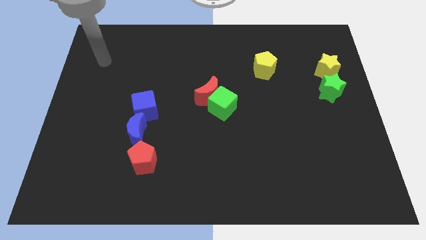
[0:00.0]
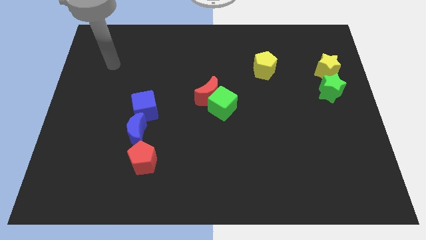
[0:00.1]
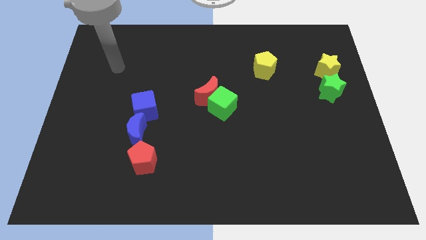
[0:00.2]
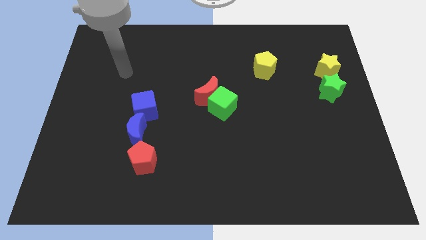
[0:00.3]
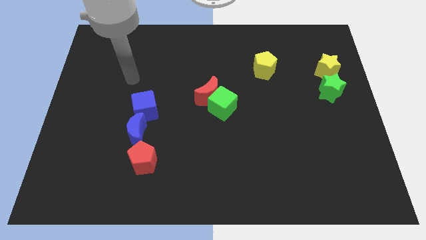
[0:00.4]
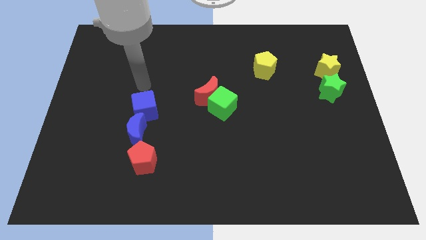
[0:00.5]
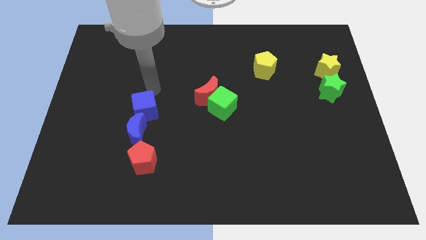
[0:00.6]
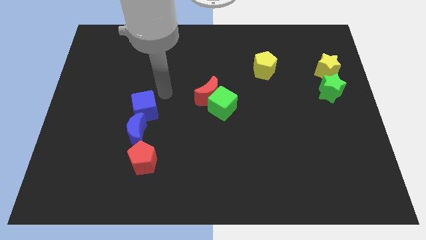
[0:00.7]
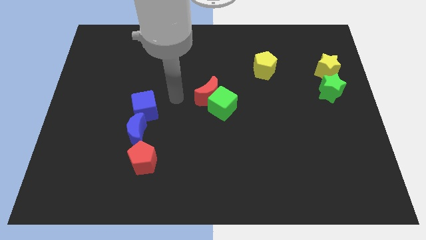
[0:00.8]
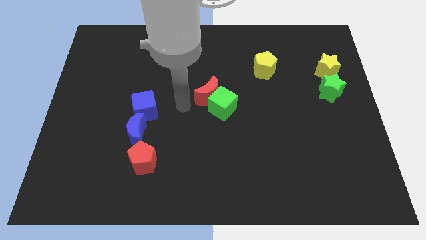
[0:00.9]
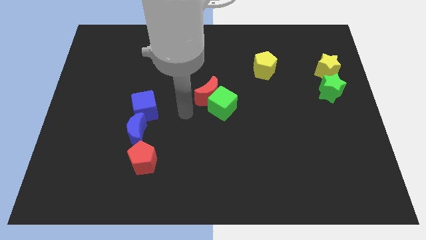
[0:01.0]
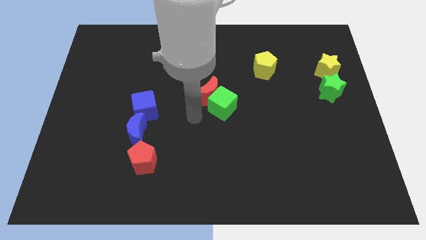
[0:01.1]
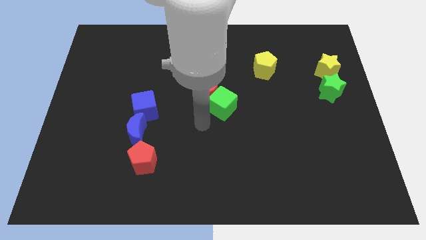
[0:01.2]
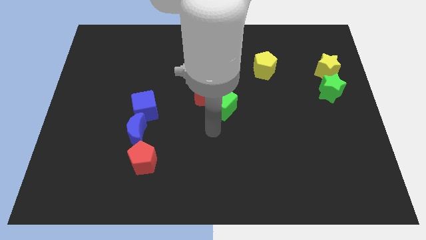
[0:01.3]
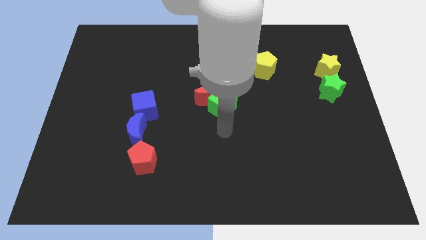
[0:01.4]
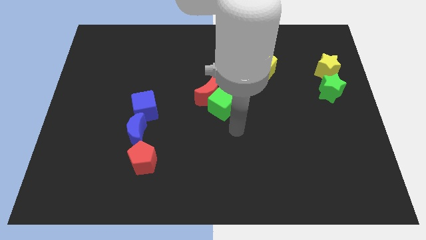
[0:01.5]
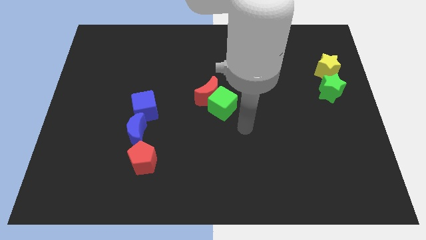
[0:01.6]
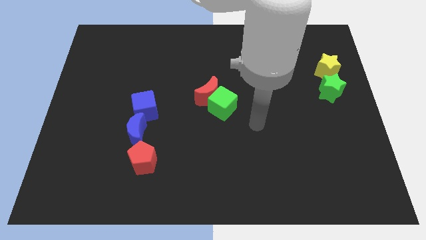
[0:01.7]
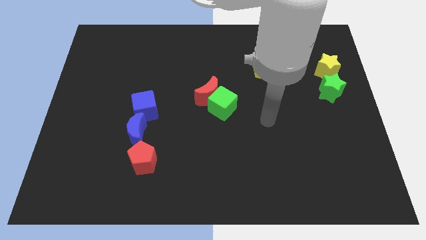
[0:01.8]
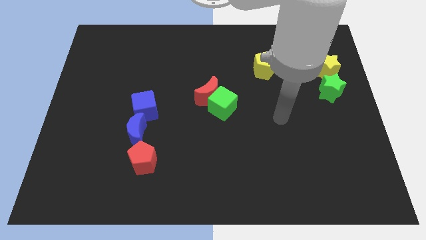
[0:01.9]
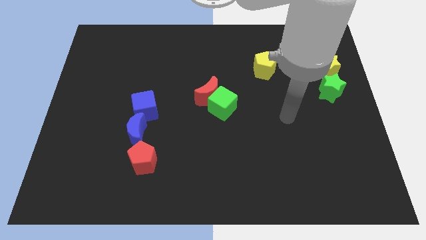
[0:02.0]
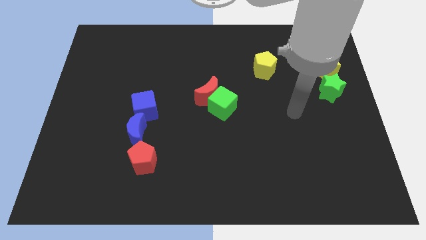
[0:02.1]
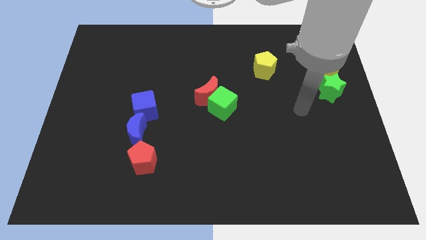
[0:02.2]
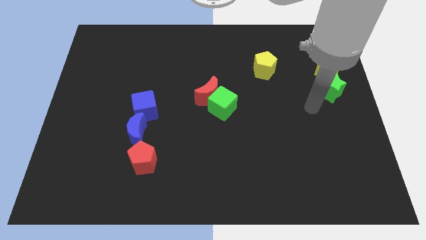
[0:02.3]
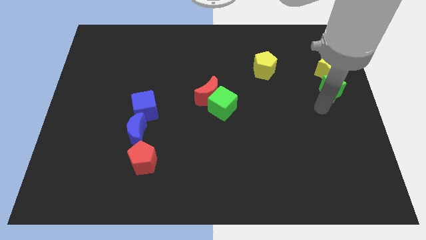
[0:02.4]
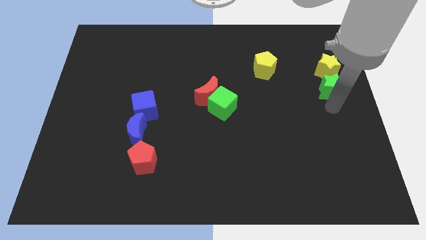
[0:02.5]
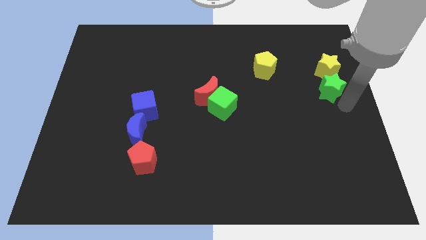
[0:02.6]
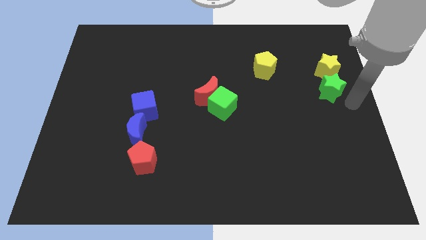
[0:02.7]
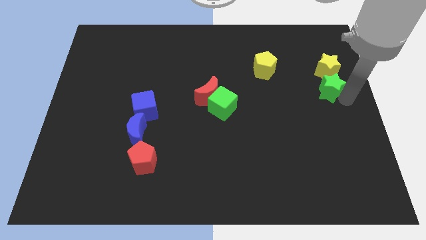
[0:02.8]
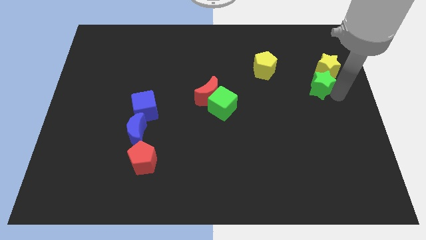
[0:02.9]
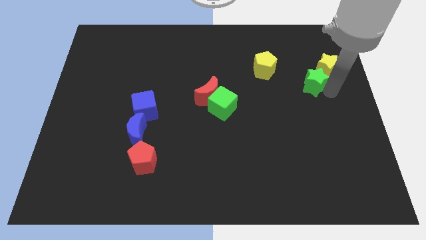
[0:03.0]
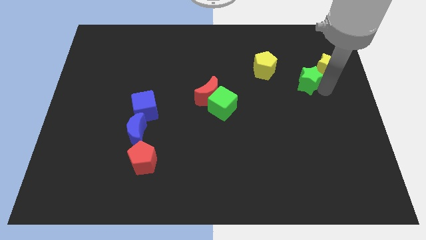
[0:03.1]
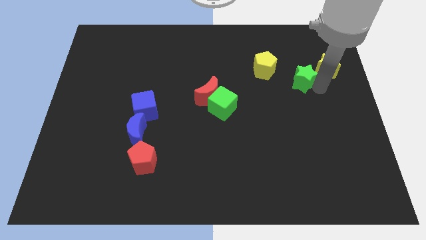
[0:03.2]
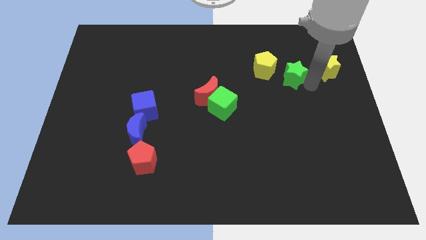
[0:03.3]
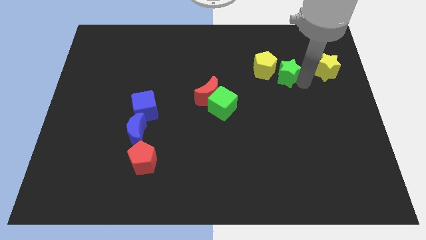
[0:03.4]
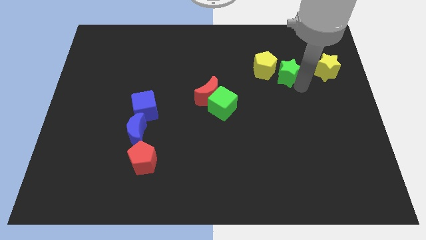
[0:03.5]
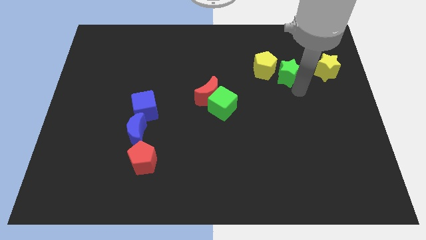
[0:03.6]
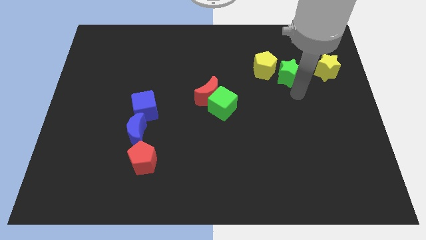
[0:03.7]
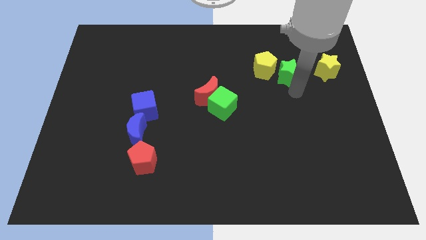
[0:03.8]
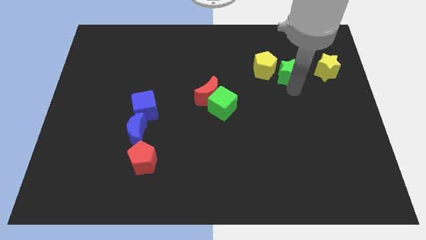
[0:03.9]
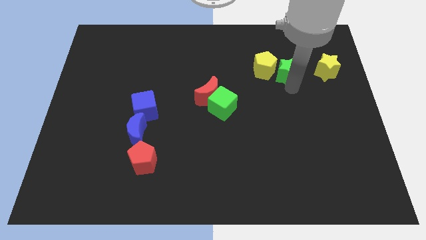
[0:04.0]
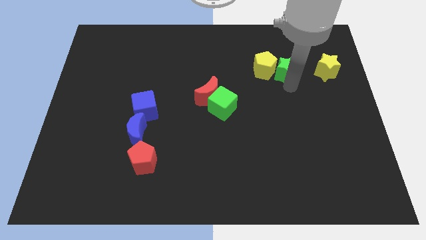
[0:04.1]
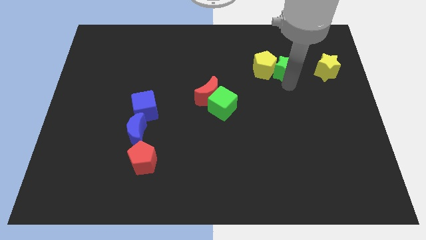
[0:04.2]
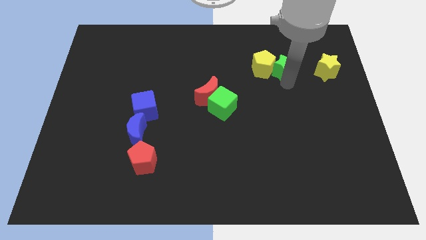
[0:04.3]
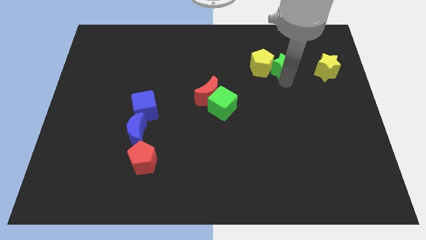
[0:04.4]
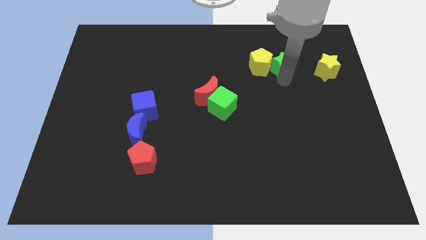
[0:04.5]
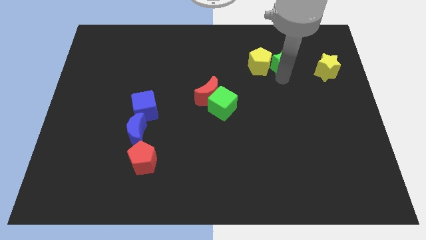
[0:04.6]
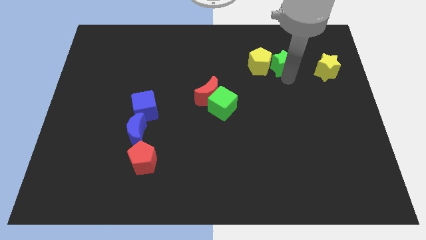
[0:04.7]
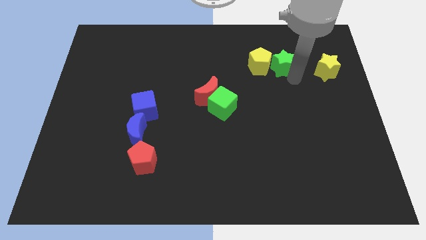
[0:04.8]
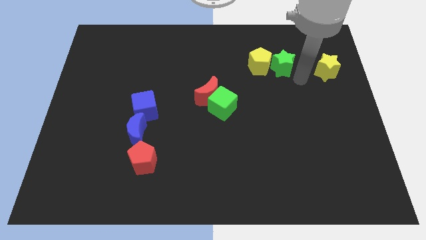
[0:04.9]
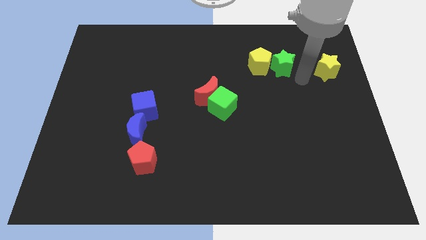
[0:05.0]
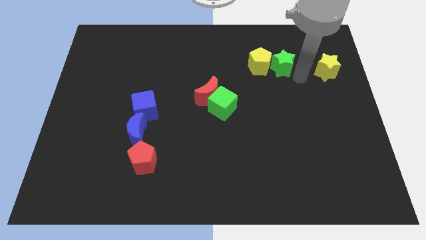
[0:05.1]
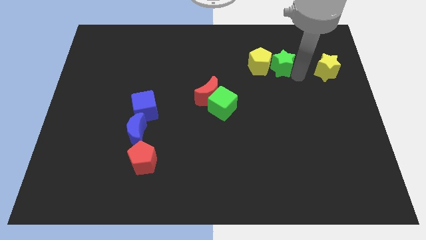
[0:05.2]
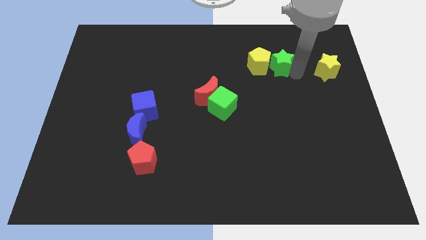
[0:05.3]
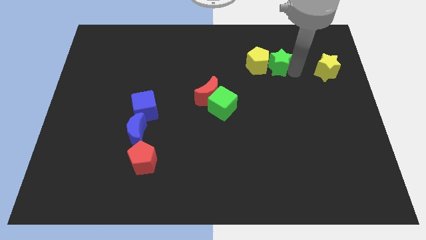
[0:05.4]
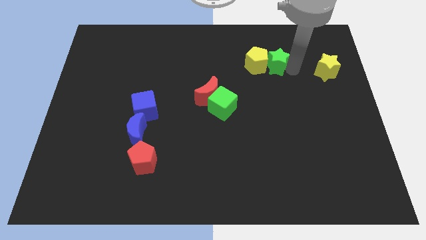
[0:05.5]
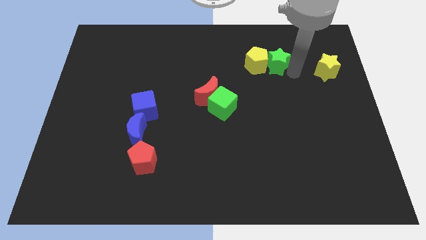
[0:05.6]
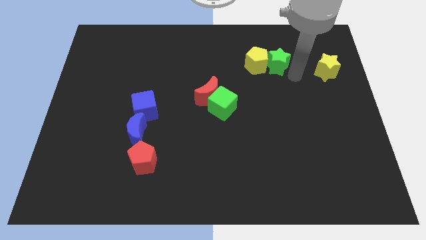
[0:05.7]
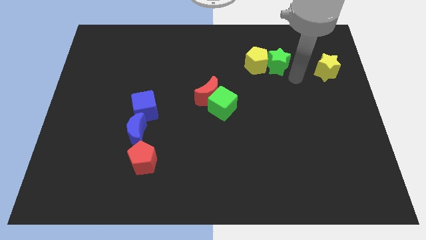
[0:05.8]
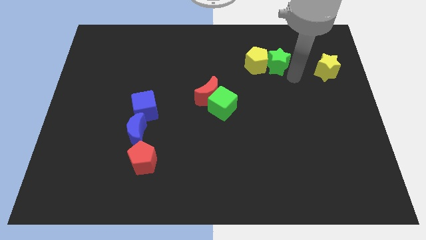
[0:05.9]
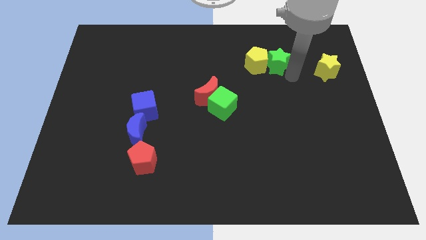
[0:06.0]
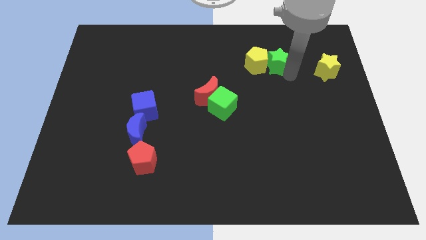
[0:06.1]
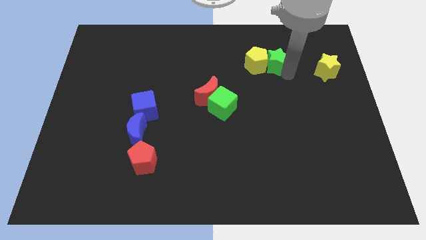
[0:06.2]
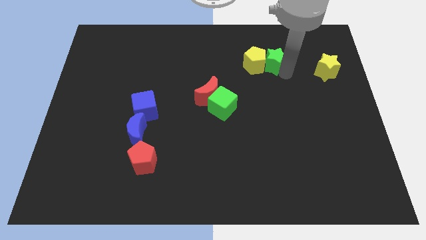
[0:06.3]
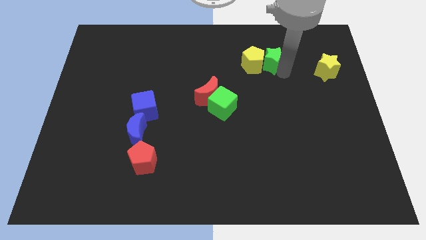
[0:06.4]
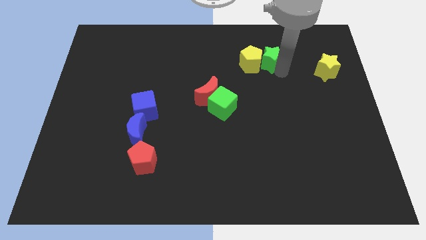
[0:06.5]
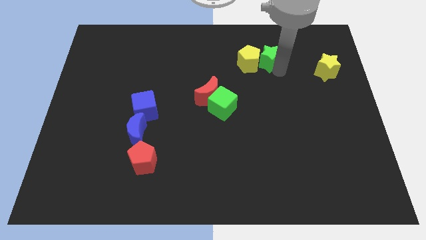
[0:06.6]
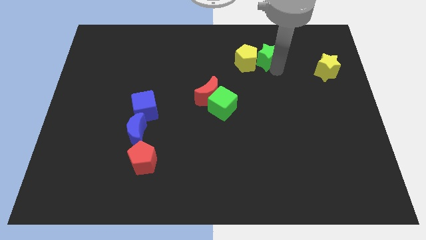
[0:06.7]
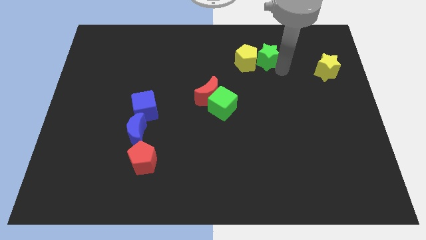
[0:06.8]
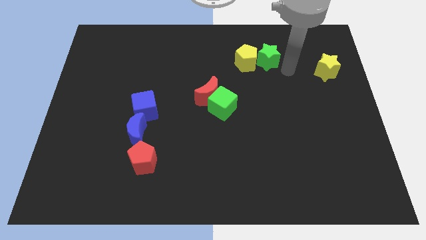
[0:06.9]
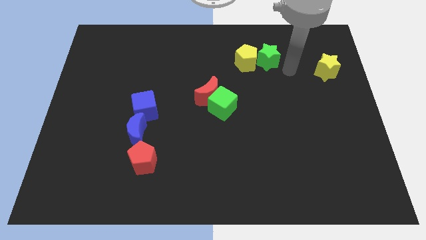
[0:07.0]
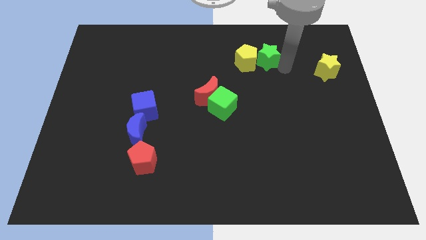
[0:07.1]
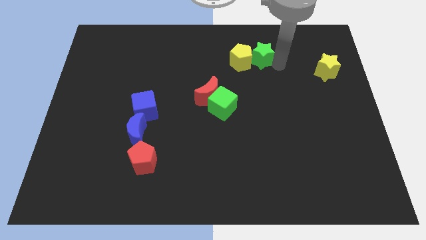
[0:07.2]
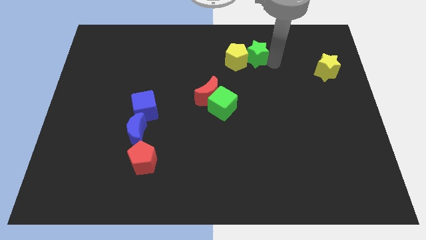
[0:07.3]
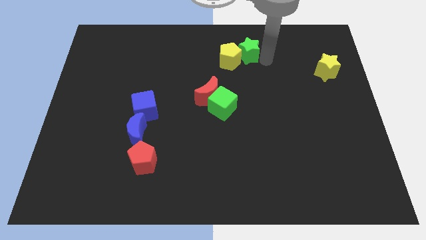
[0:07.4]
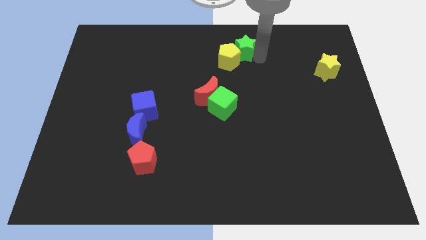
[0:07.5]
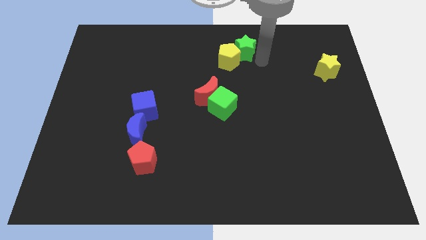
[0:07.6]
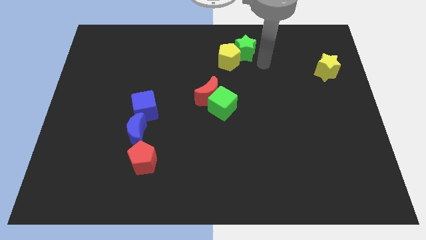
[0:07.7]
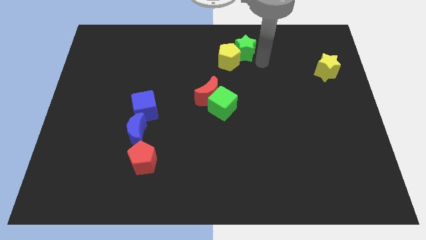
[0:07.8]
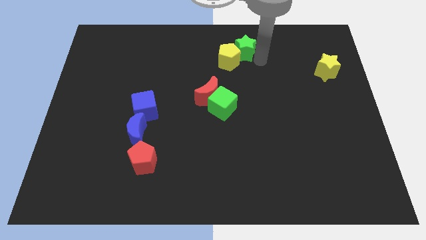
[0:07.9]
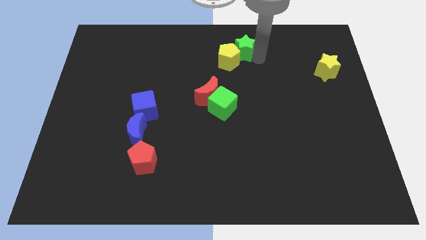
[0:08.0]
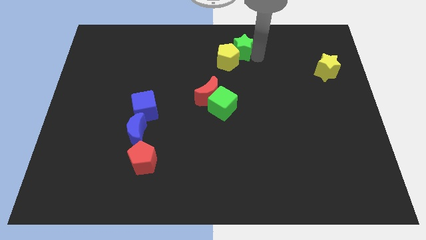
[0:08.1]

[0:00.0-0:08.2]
push the green star to the top side
